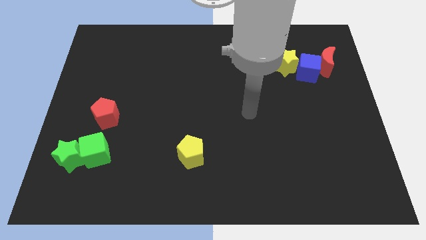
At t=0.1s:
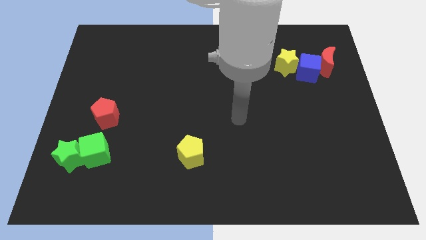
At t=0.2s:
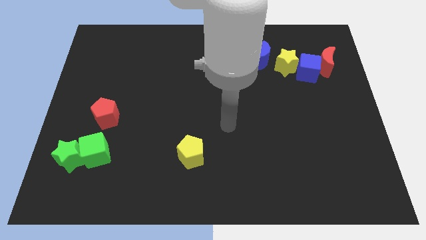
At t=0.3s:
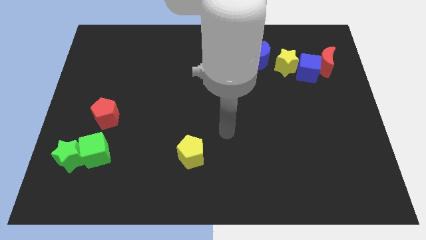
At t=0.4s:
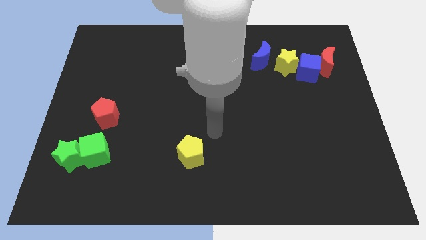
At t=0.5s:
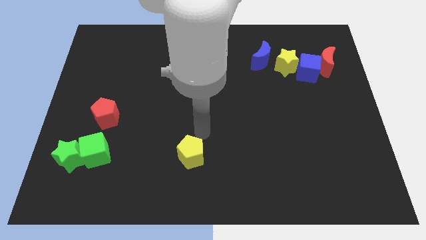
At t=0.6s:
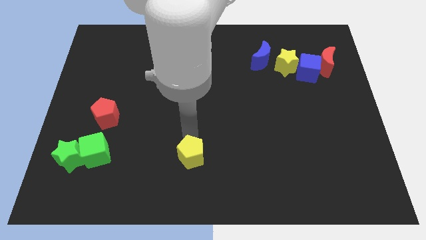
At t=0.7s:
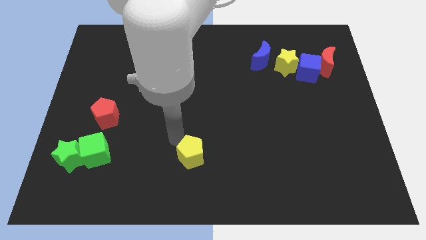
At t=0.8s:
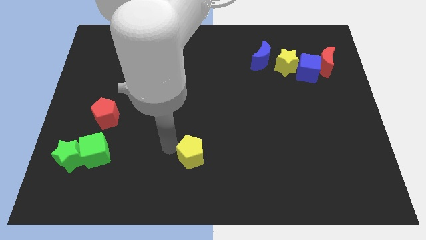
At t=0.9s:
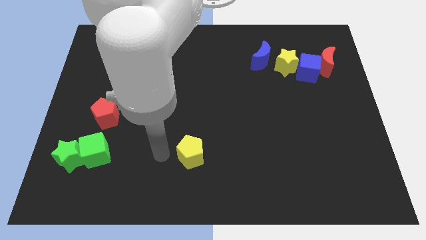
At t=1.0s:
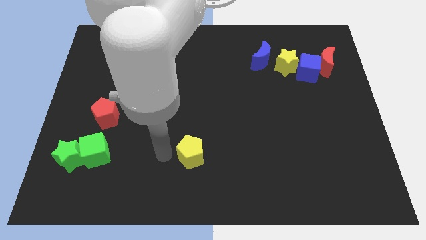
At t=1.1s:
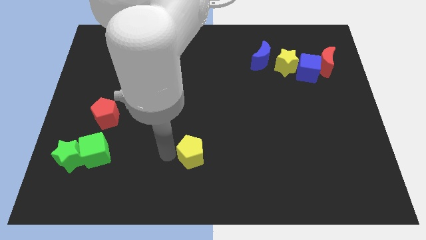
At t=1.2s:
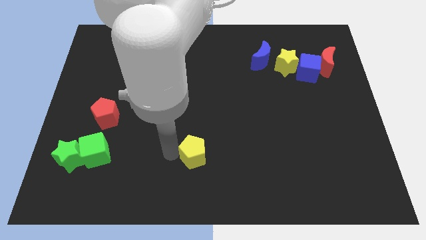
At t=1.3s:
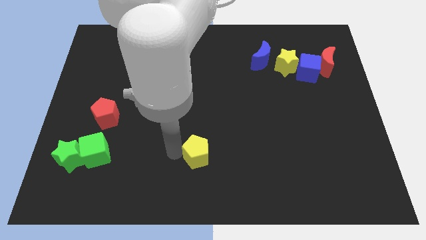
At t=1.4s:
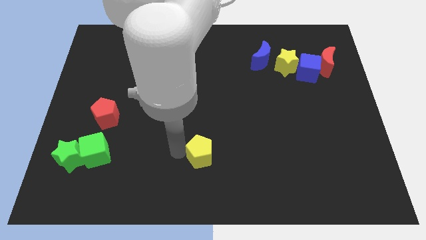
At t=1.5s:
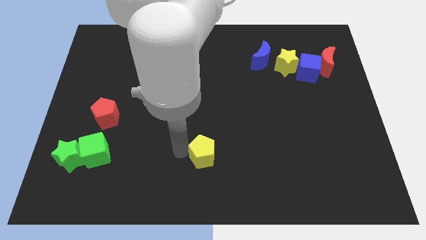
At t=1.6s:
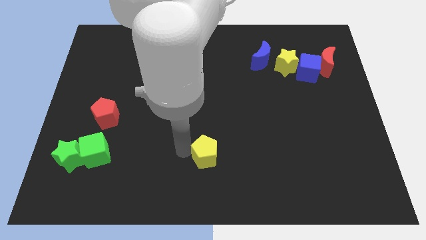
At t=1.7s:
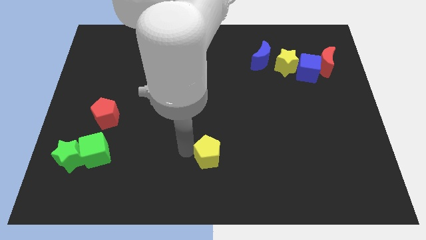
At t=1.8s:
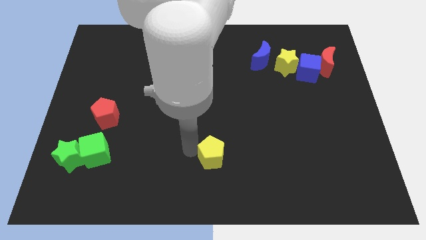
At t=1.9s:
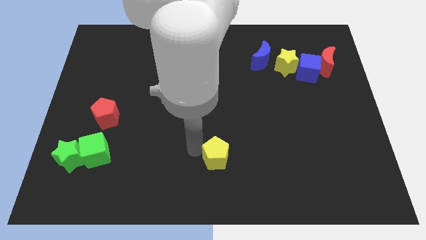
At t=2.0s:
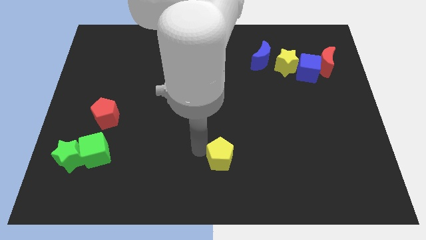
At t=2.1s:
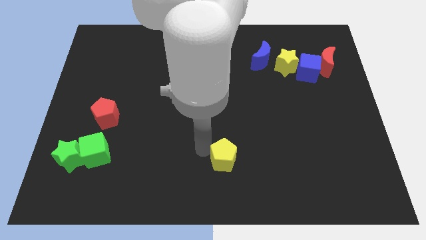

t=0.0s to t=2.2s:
slightly move the yellow pentagon to the right

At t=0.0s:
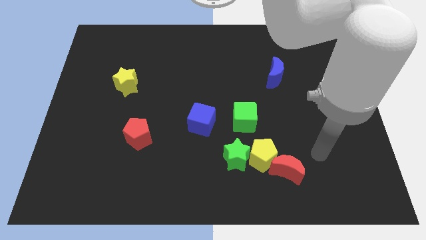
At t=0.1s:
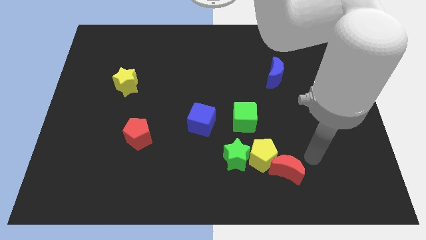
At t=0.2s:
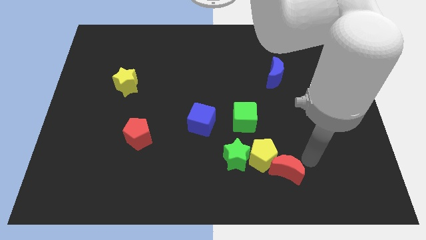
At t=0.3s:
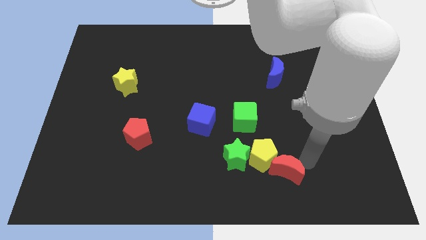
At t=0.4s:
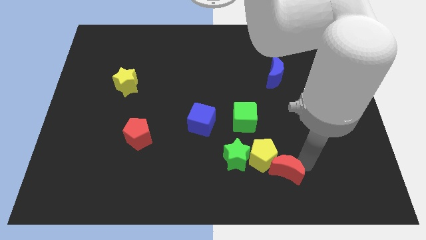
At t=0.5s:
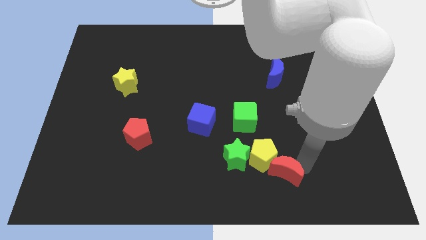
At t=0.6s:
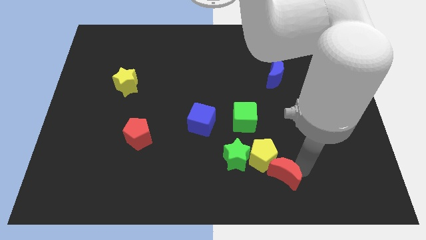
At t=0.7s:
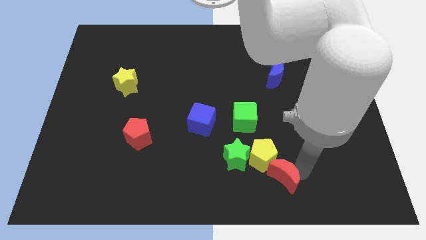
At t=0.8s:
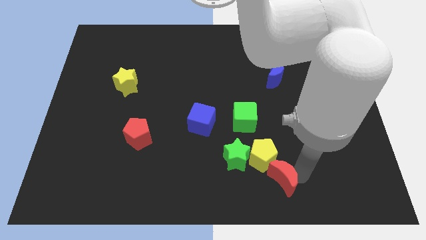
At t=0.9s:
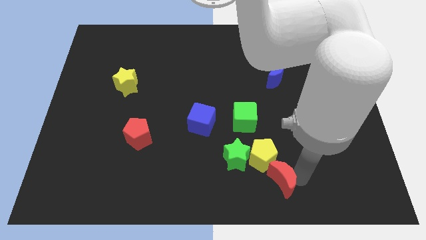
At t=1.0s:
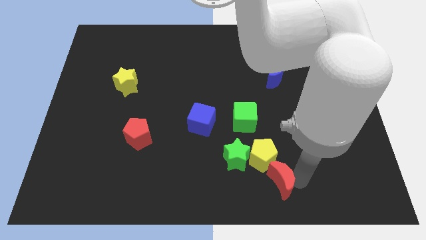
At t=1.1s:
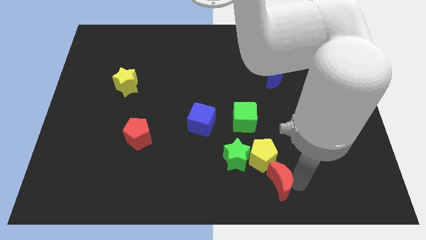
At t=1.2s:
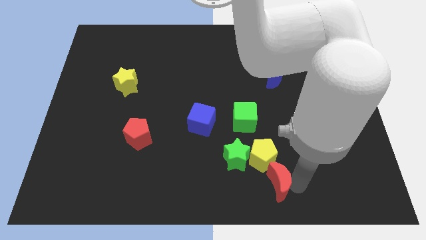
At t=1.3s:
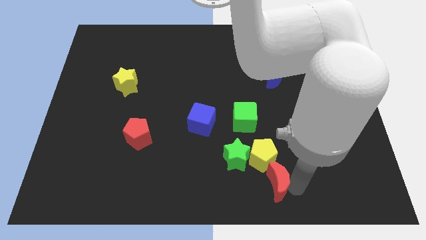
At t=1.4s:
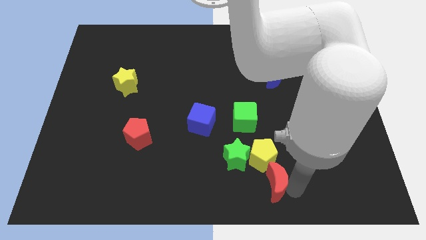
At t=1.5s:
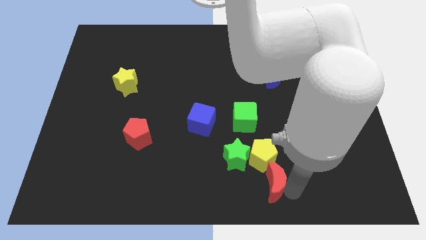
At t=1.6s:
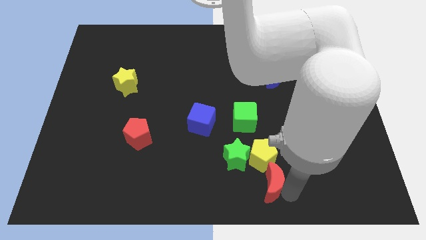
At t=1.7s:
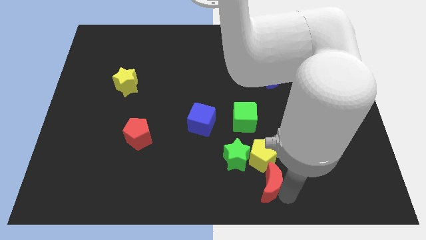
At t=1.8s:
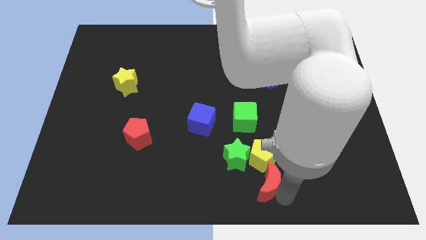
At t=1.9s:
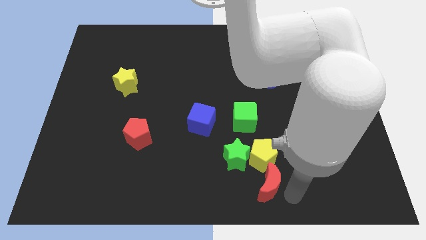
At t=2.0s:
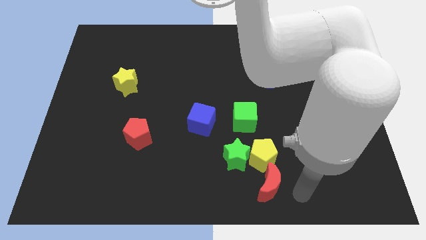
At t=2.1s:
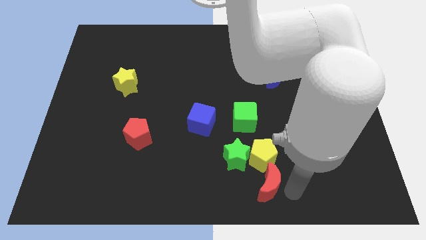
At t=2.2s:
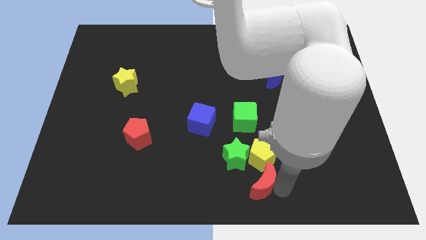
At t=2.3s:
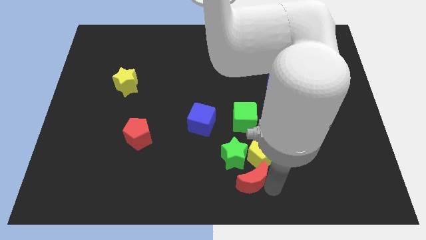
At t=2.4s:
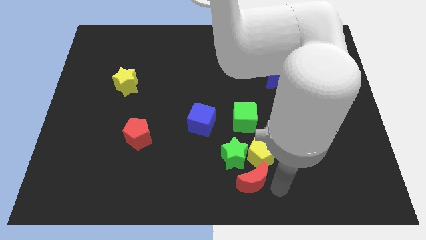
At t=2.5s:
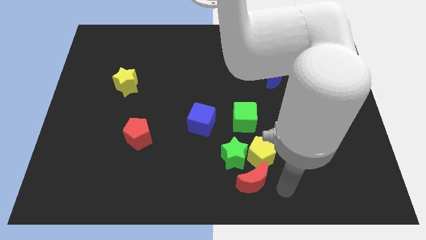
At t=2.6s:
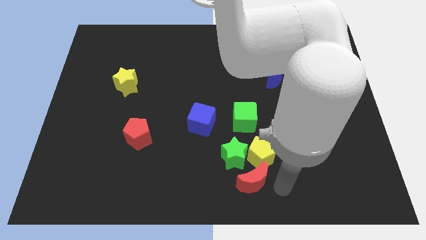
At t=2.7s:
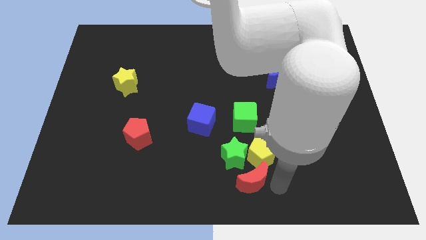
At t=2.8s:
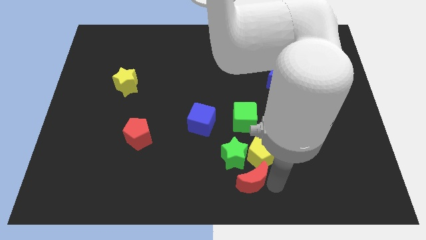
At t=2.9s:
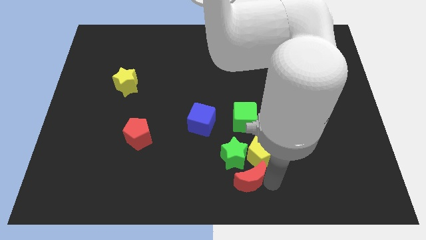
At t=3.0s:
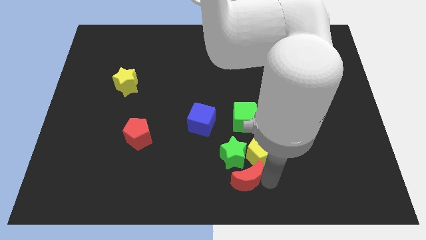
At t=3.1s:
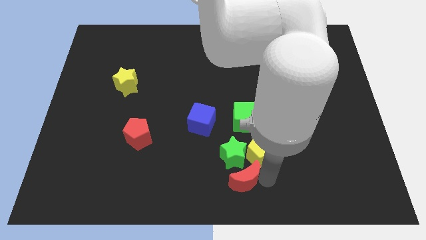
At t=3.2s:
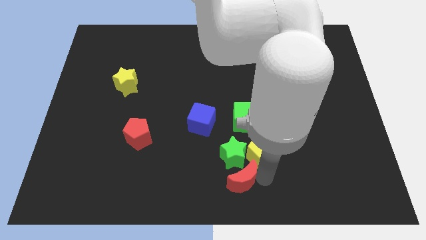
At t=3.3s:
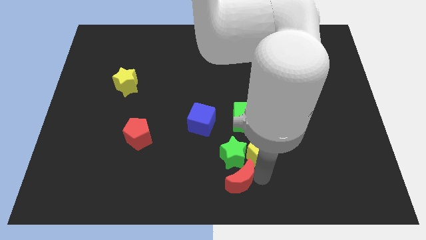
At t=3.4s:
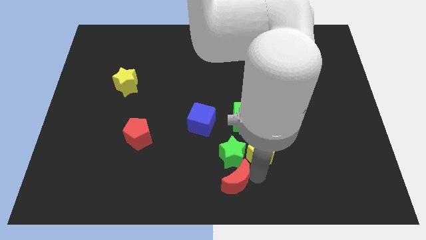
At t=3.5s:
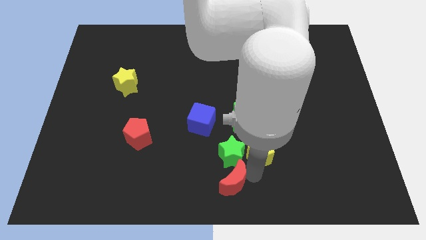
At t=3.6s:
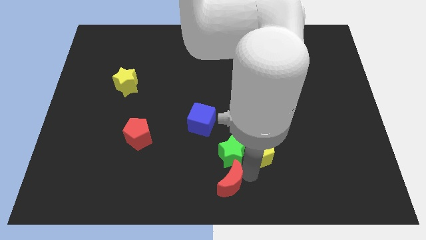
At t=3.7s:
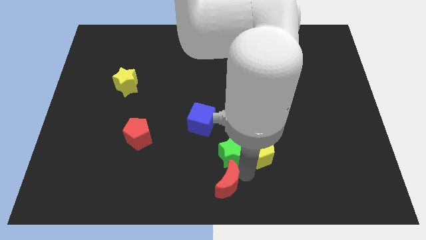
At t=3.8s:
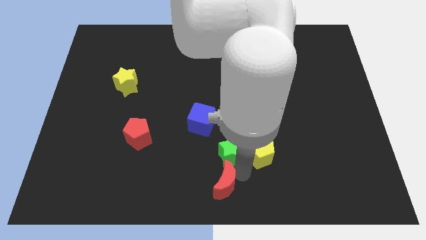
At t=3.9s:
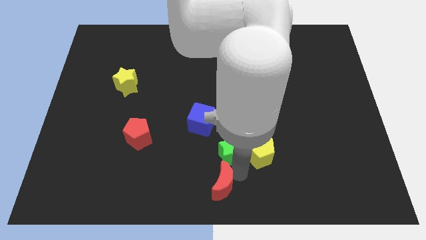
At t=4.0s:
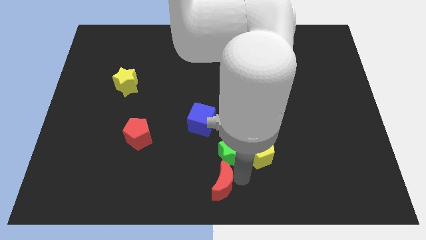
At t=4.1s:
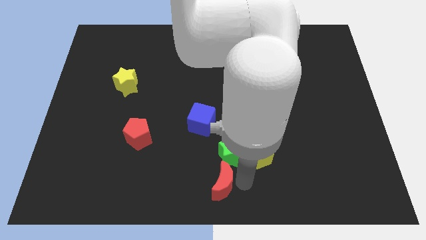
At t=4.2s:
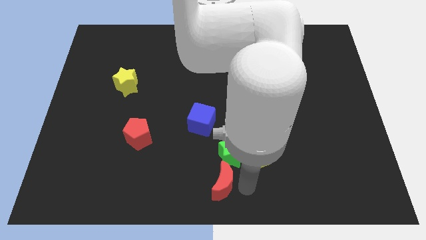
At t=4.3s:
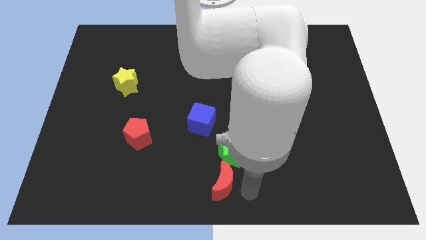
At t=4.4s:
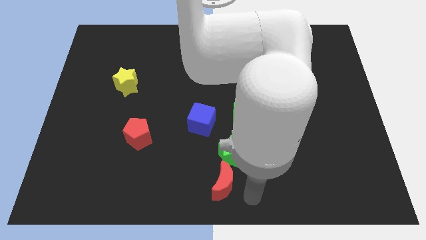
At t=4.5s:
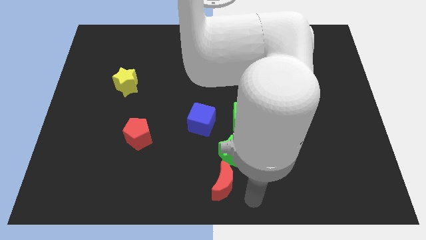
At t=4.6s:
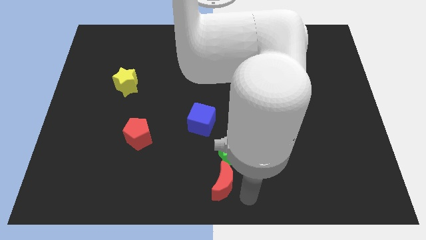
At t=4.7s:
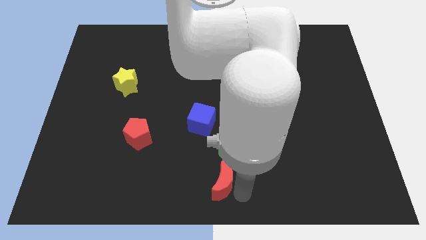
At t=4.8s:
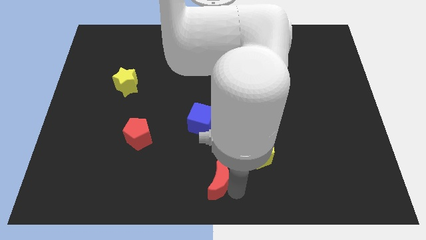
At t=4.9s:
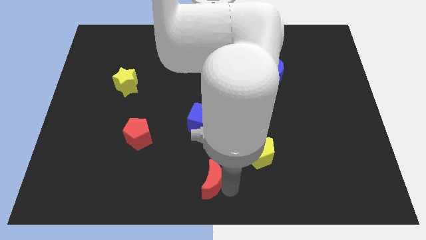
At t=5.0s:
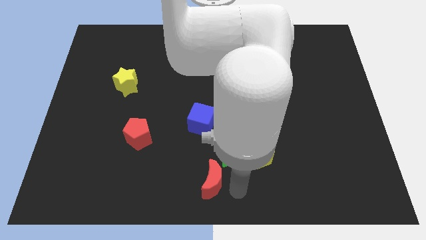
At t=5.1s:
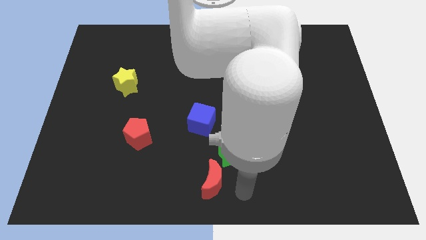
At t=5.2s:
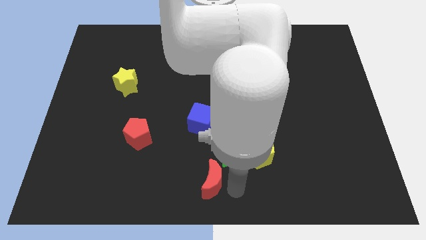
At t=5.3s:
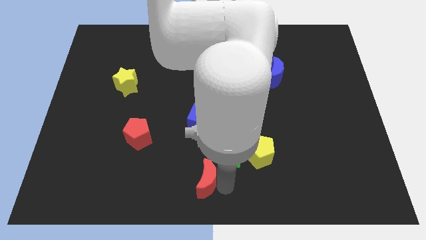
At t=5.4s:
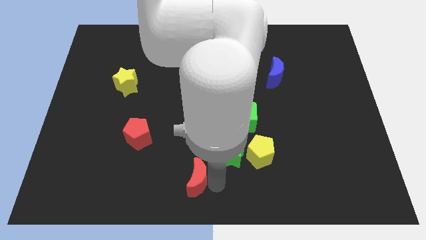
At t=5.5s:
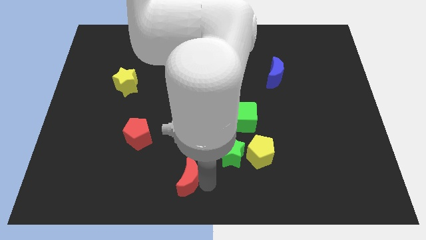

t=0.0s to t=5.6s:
push the red moon to the left

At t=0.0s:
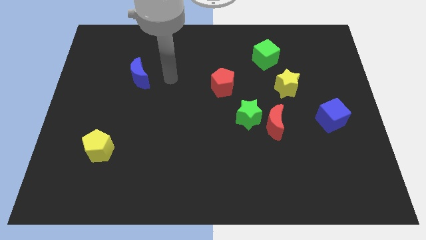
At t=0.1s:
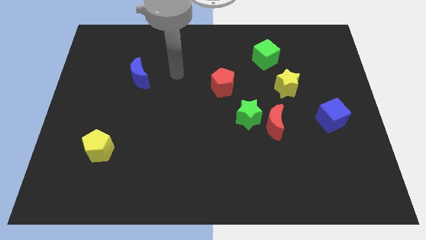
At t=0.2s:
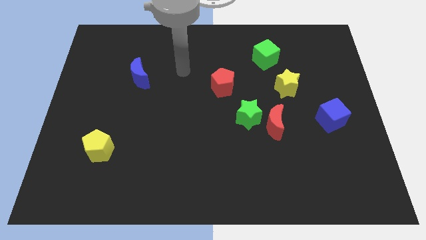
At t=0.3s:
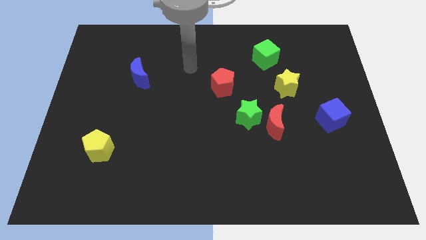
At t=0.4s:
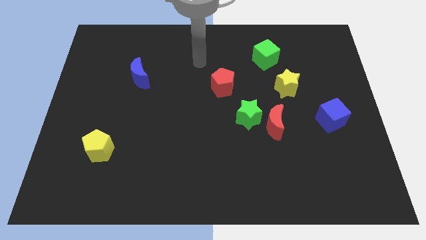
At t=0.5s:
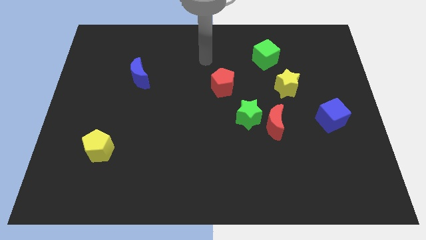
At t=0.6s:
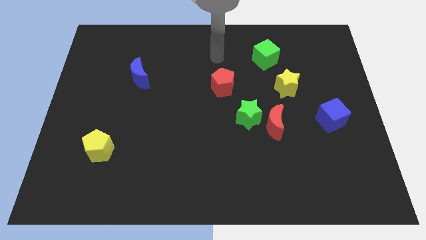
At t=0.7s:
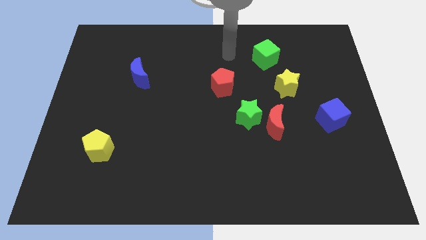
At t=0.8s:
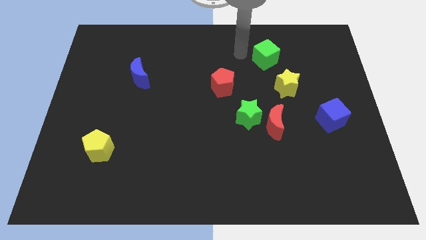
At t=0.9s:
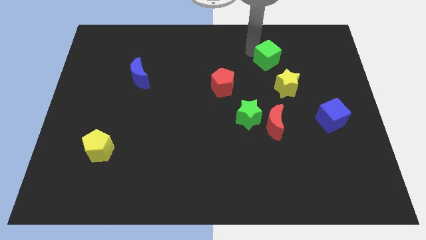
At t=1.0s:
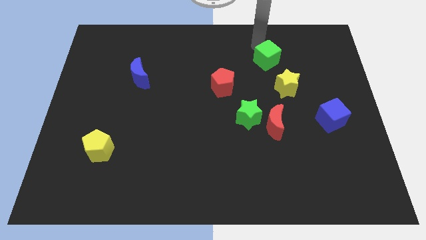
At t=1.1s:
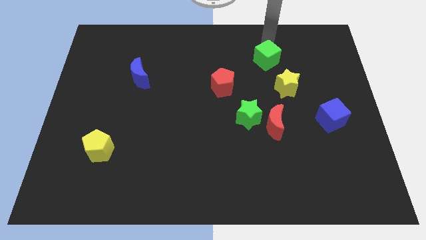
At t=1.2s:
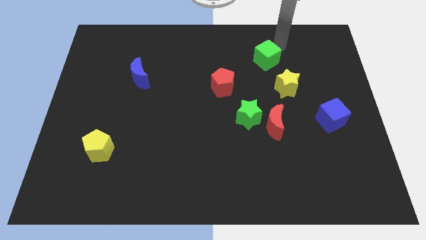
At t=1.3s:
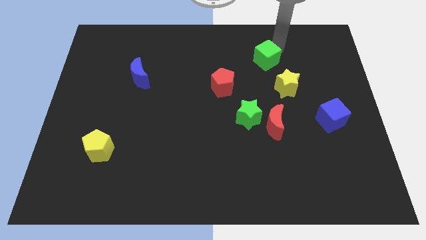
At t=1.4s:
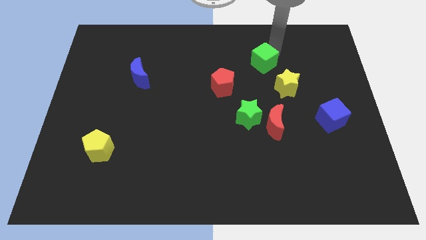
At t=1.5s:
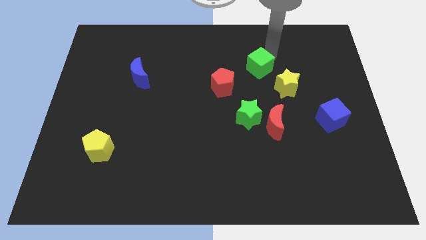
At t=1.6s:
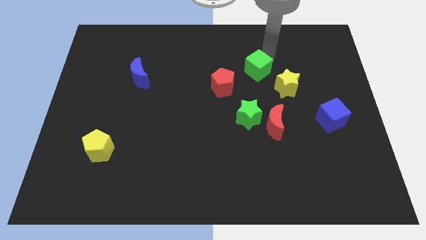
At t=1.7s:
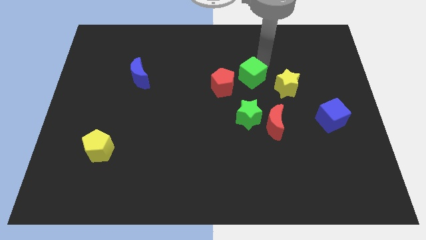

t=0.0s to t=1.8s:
move the green cube a little bit down and to the left diagonally
